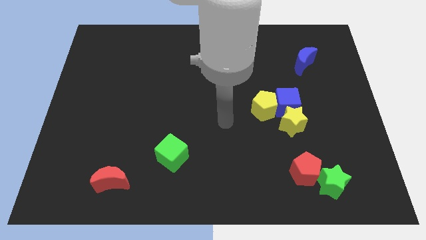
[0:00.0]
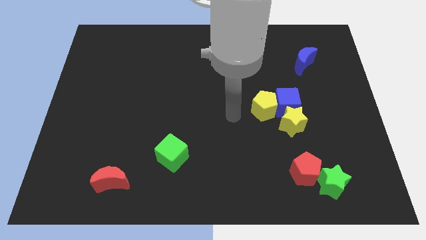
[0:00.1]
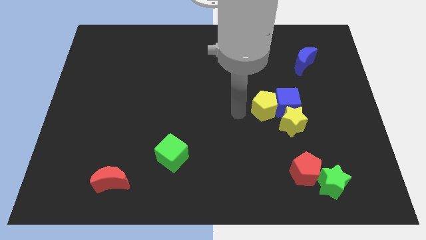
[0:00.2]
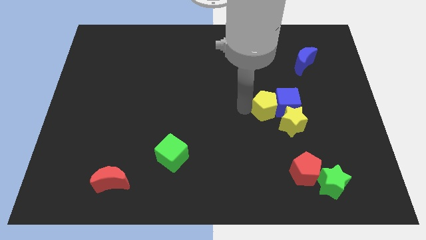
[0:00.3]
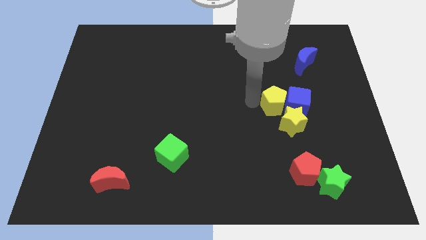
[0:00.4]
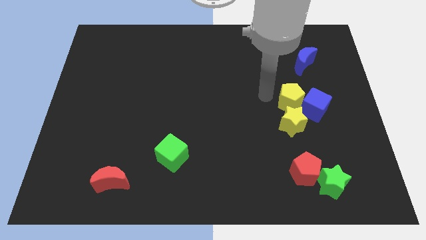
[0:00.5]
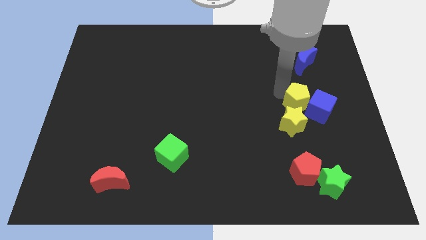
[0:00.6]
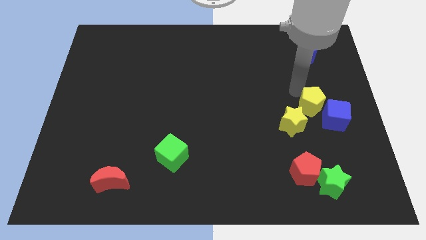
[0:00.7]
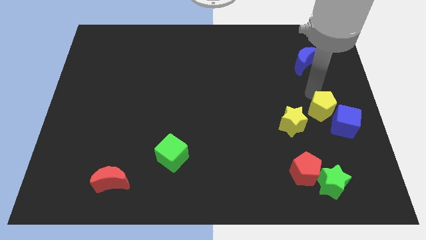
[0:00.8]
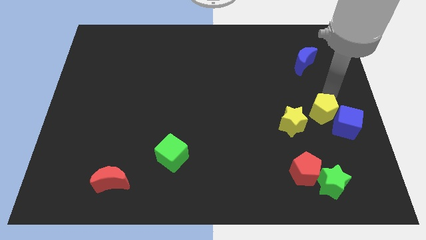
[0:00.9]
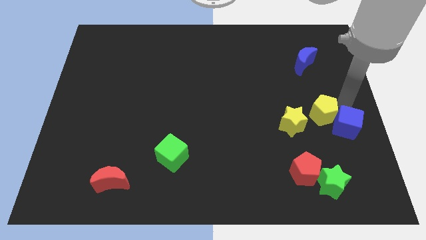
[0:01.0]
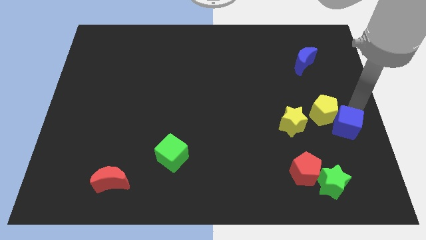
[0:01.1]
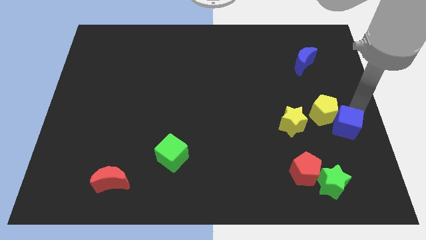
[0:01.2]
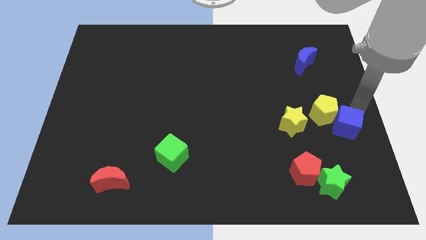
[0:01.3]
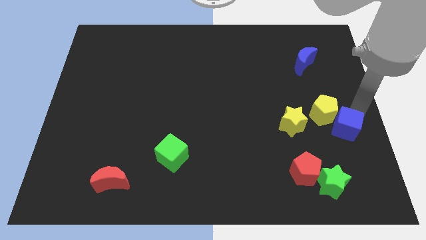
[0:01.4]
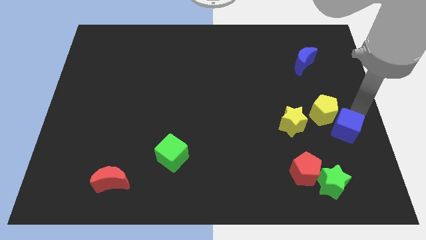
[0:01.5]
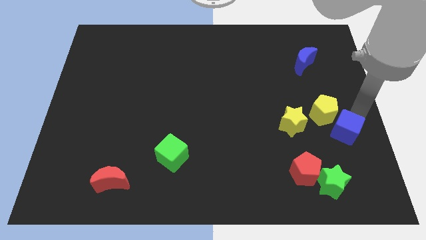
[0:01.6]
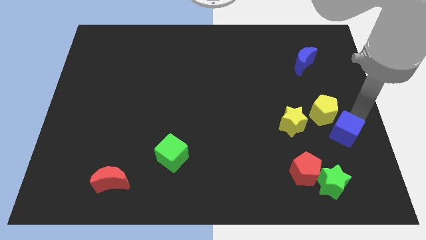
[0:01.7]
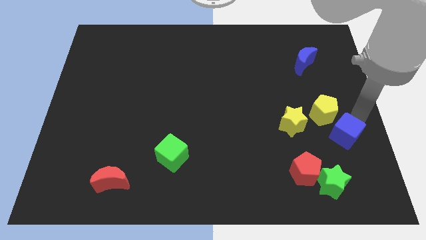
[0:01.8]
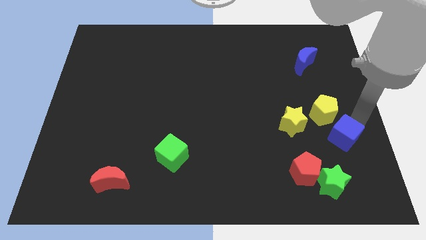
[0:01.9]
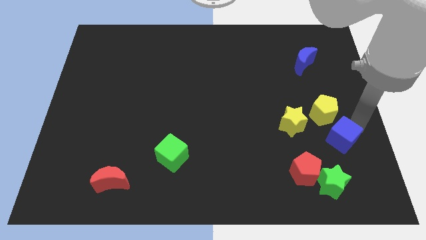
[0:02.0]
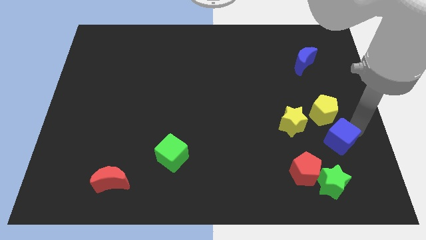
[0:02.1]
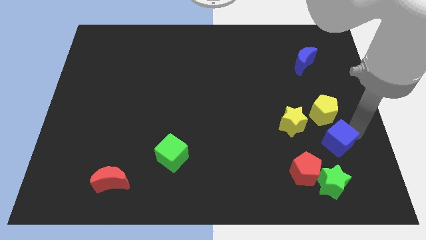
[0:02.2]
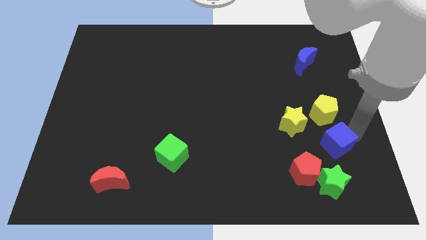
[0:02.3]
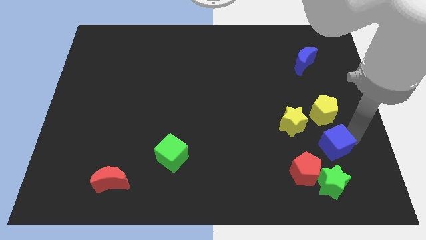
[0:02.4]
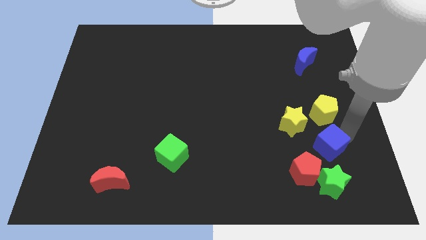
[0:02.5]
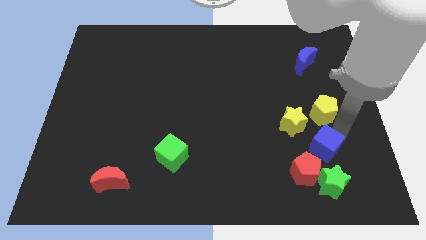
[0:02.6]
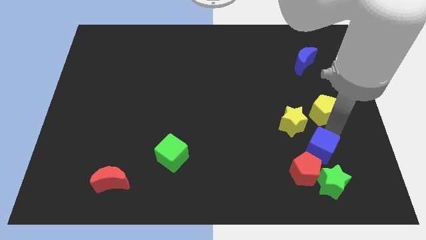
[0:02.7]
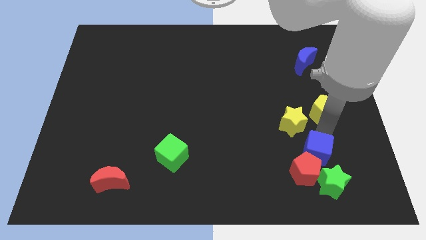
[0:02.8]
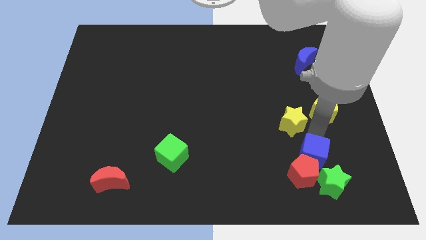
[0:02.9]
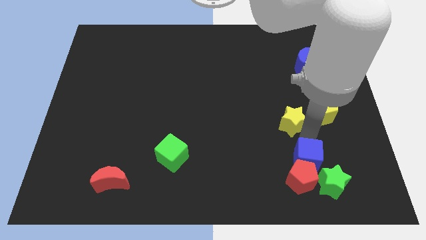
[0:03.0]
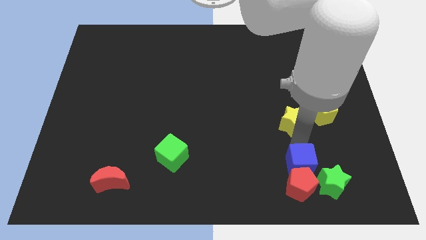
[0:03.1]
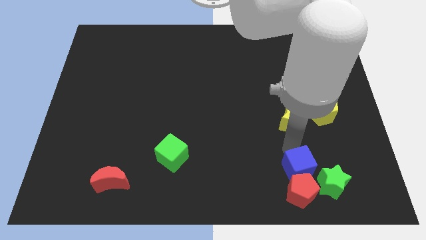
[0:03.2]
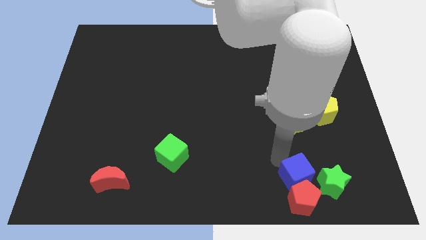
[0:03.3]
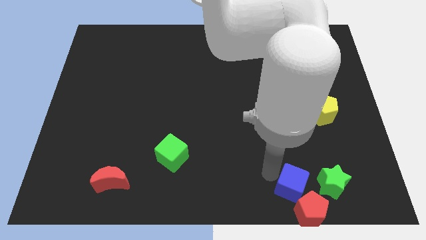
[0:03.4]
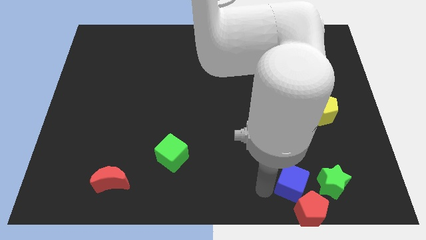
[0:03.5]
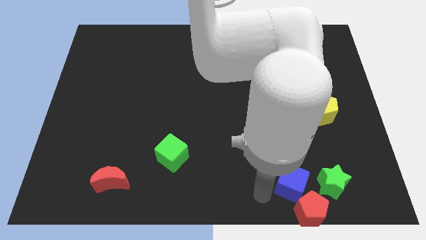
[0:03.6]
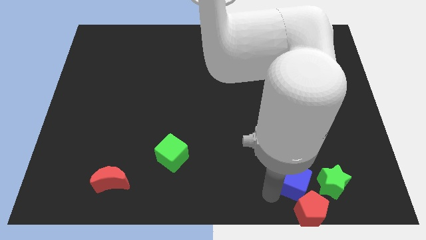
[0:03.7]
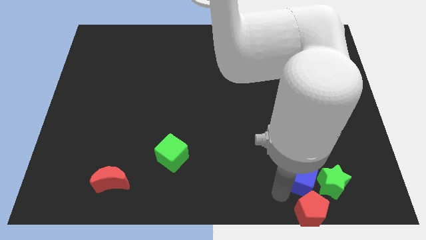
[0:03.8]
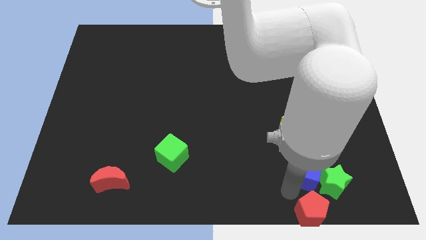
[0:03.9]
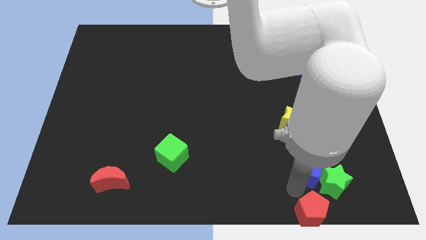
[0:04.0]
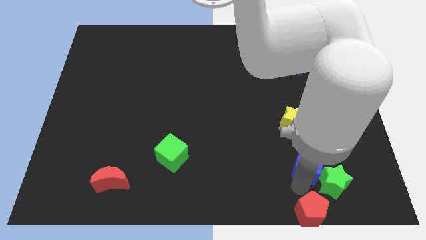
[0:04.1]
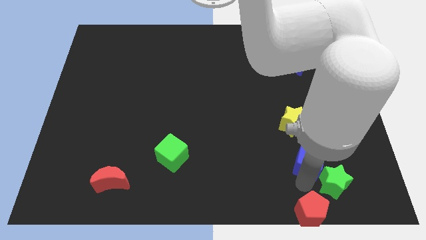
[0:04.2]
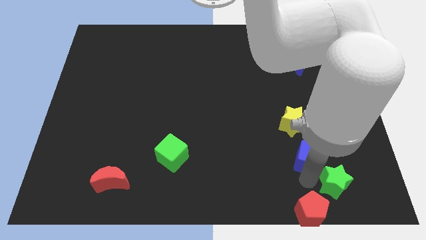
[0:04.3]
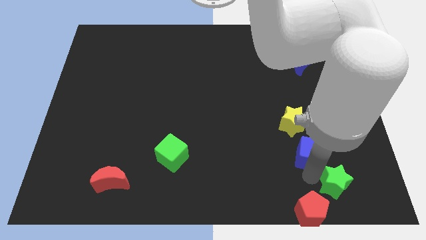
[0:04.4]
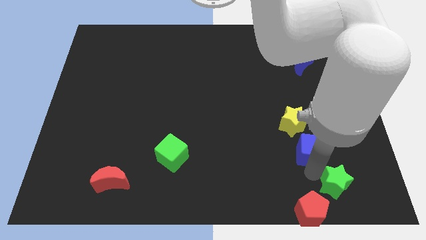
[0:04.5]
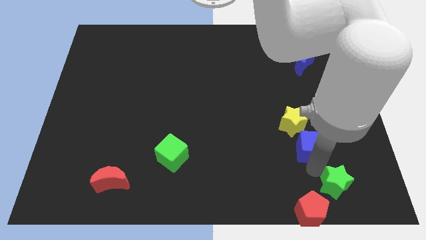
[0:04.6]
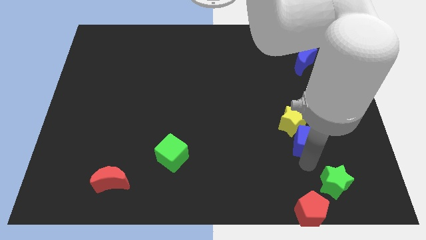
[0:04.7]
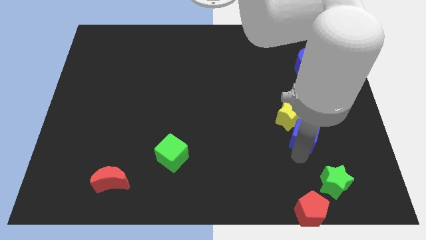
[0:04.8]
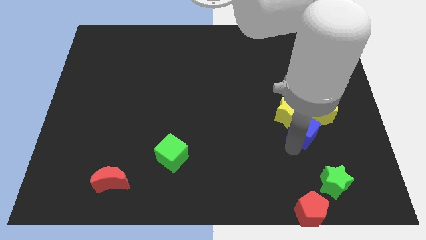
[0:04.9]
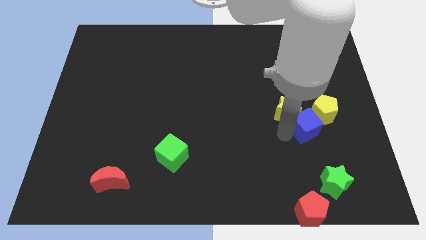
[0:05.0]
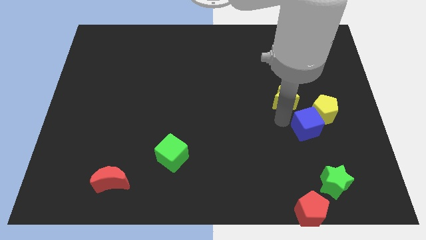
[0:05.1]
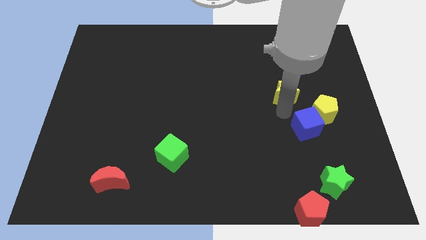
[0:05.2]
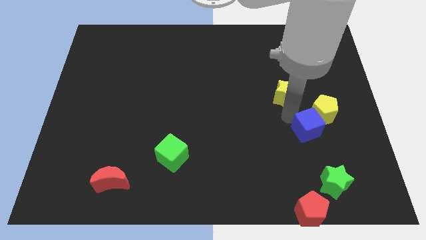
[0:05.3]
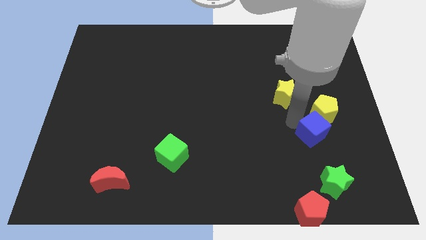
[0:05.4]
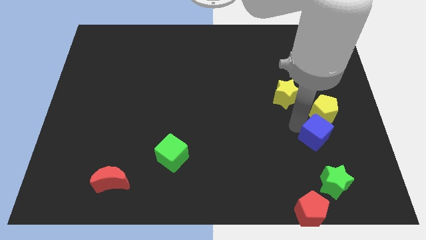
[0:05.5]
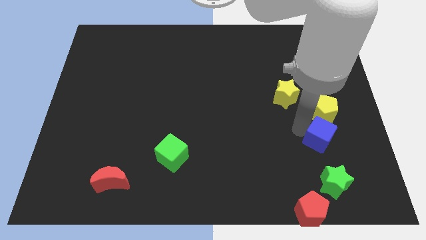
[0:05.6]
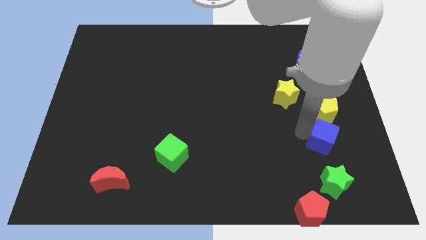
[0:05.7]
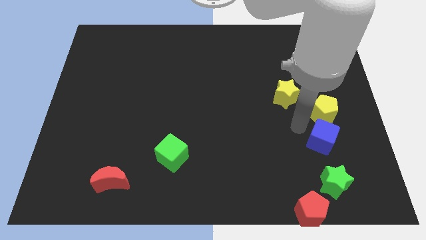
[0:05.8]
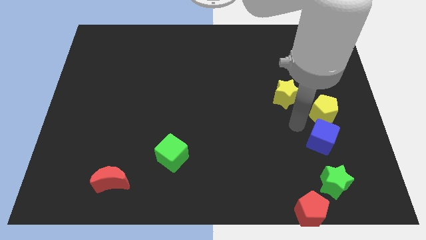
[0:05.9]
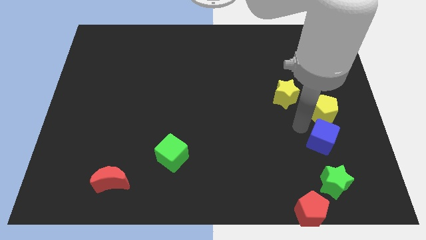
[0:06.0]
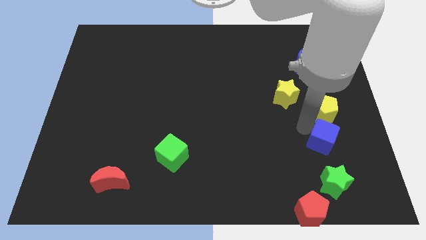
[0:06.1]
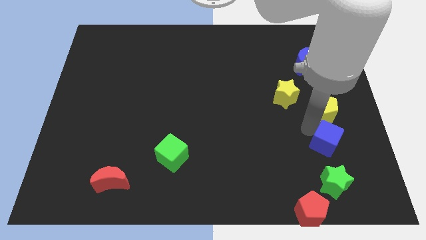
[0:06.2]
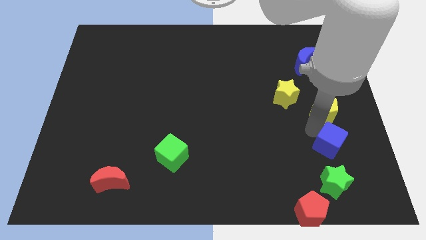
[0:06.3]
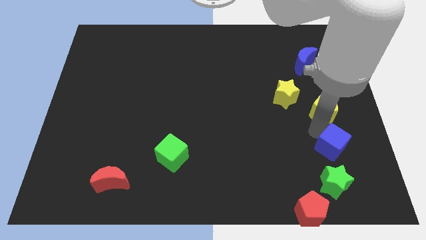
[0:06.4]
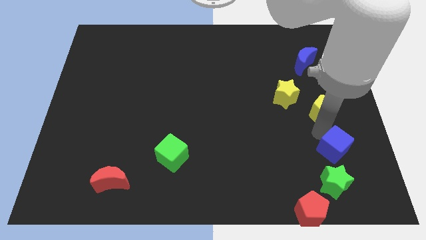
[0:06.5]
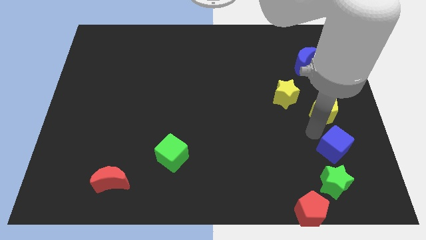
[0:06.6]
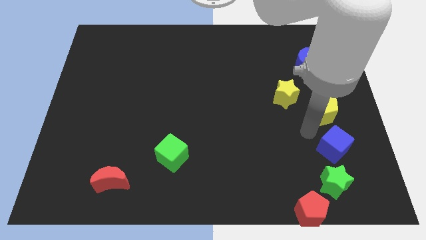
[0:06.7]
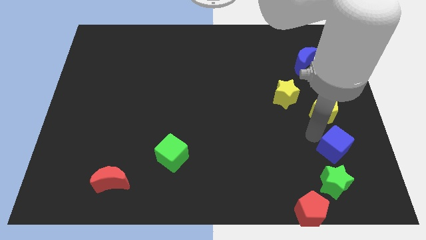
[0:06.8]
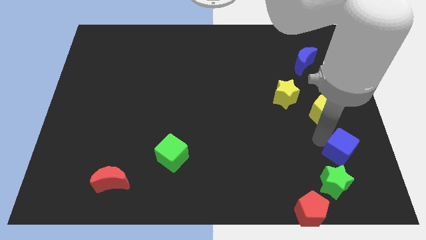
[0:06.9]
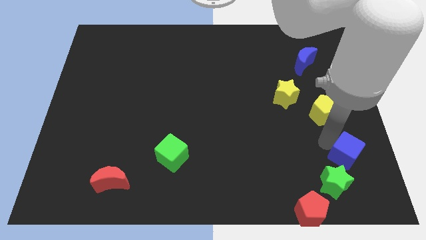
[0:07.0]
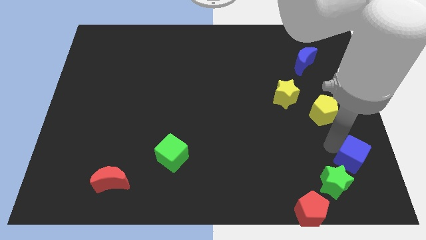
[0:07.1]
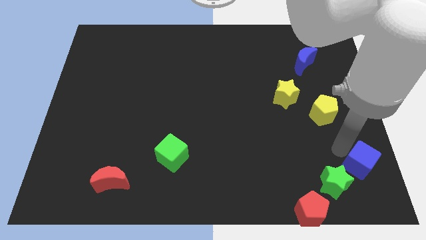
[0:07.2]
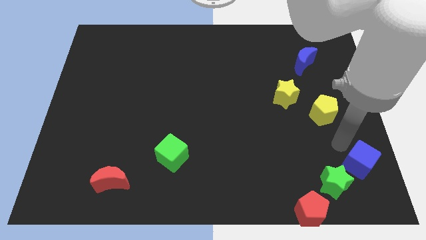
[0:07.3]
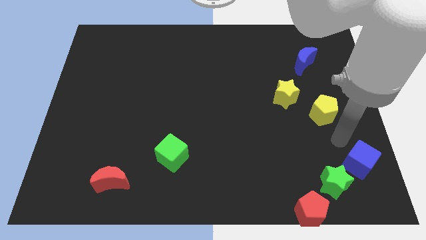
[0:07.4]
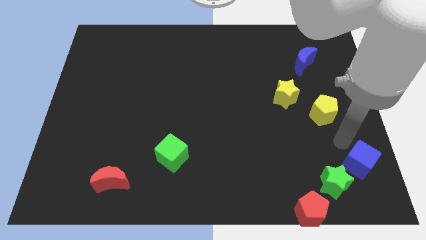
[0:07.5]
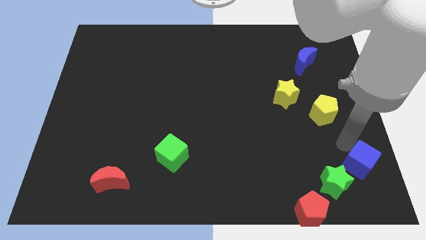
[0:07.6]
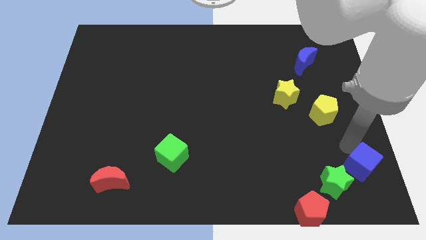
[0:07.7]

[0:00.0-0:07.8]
push the blue cube to the bottom right corner
